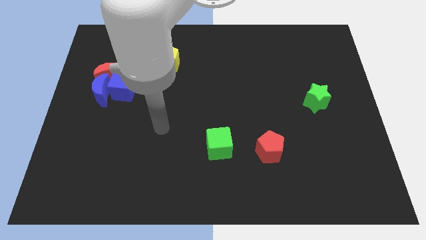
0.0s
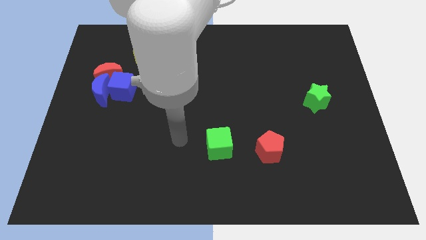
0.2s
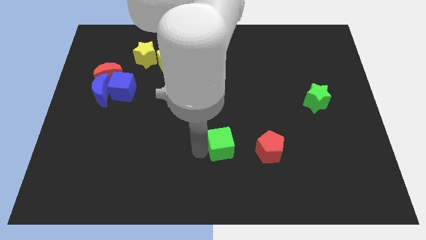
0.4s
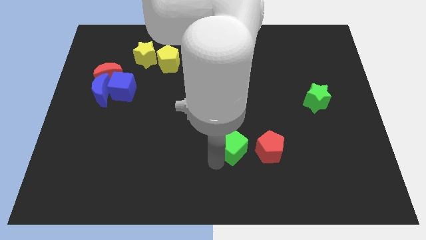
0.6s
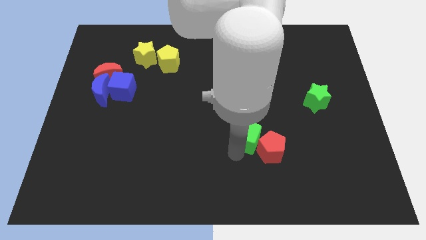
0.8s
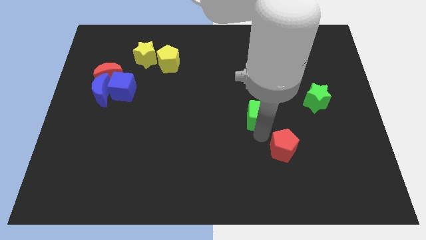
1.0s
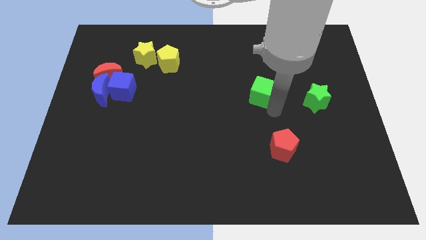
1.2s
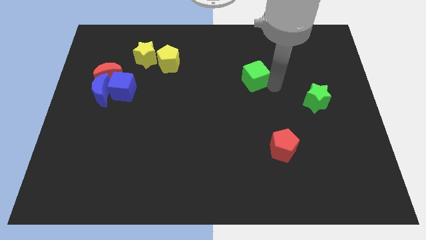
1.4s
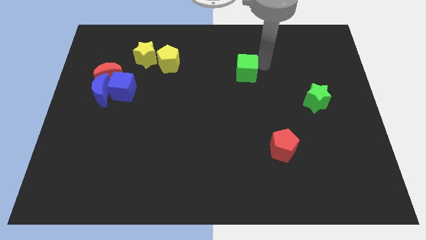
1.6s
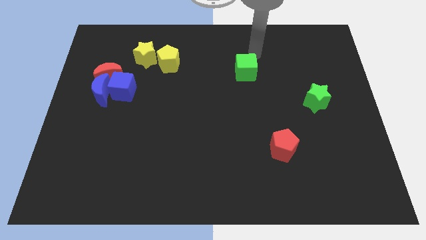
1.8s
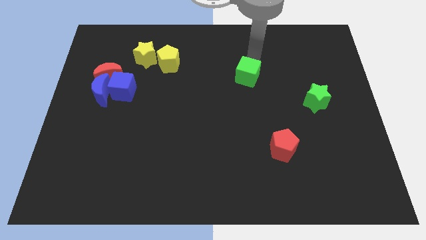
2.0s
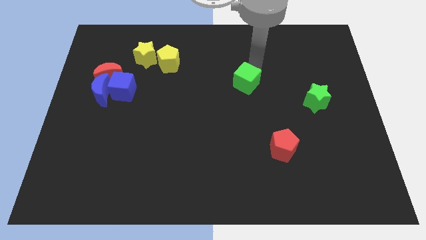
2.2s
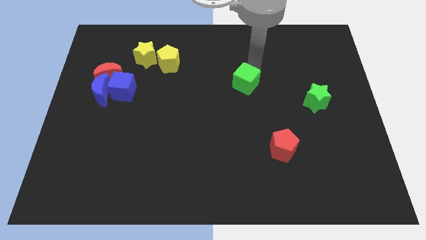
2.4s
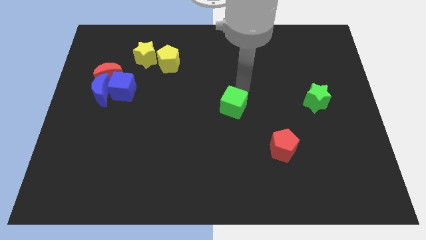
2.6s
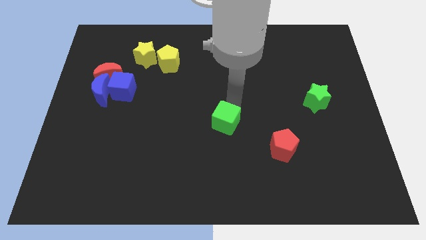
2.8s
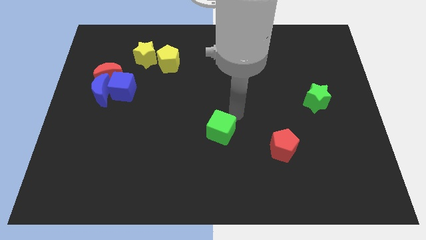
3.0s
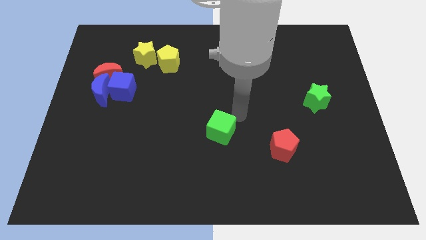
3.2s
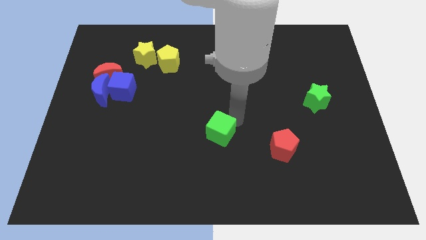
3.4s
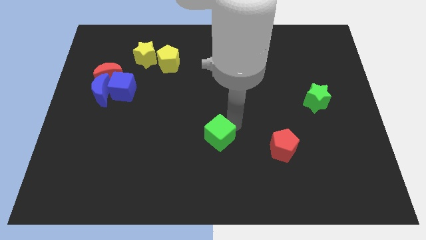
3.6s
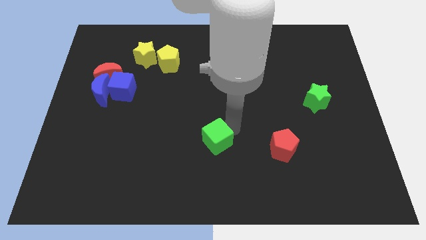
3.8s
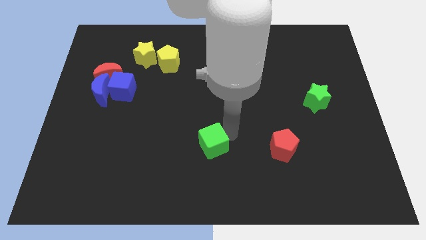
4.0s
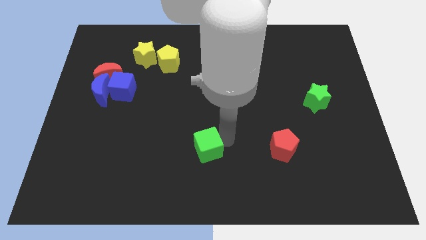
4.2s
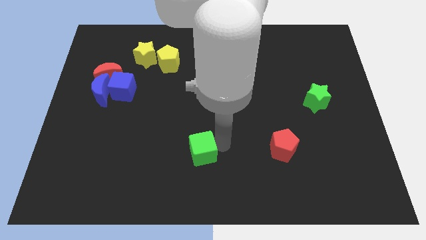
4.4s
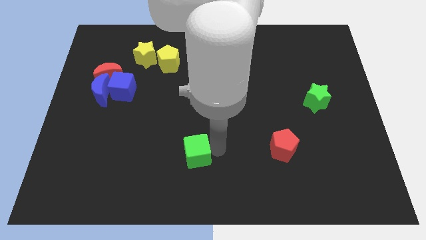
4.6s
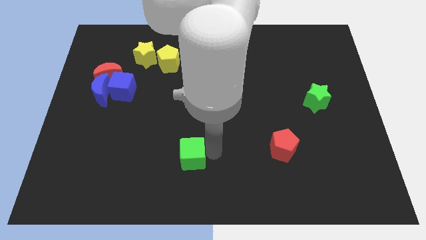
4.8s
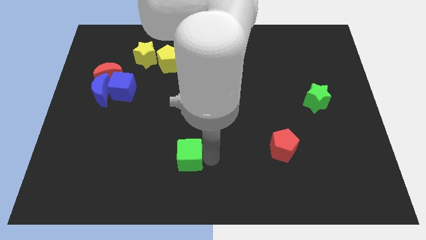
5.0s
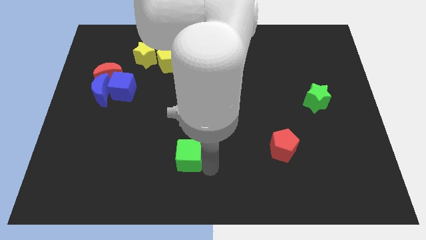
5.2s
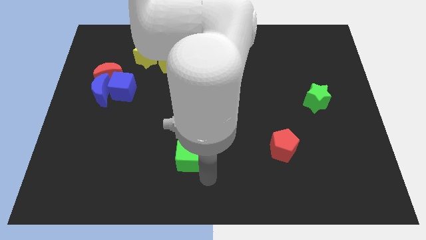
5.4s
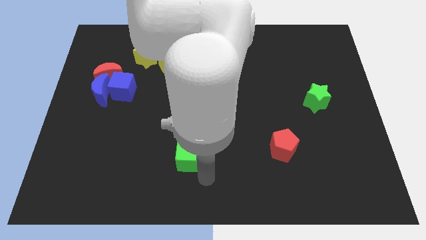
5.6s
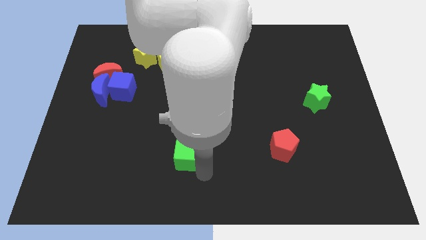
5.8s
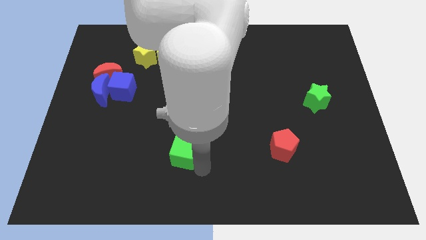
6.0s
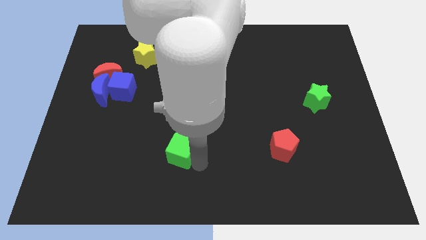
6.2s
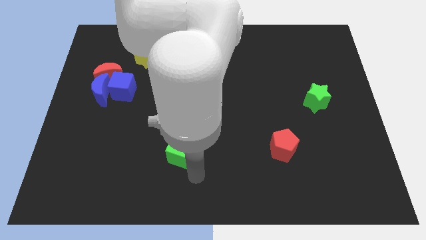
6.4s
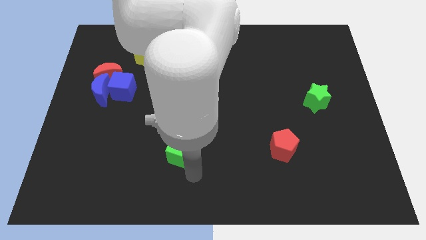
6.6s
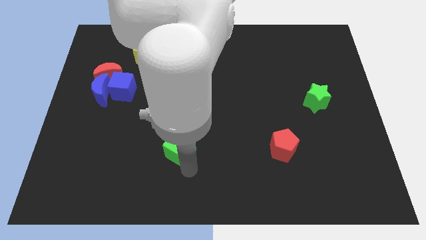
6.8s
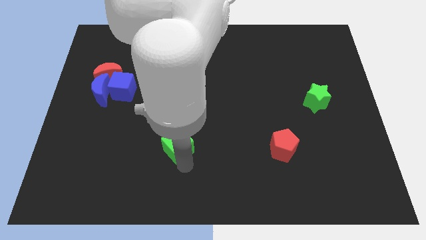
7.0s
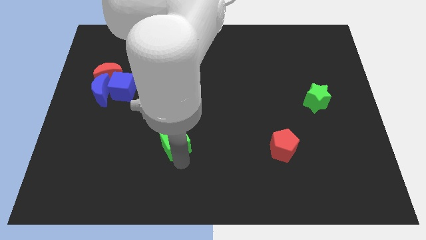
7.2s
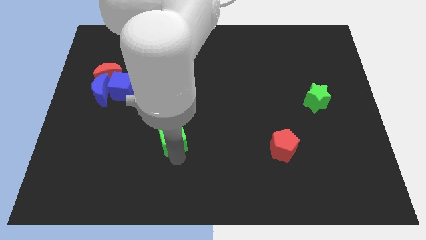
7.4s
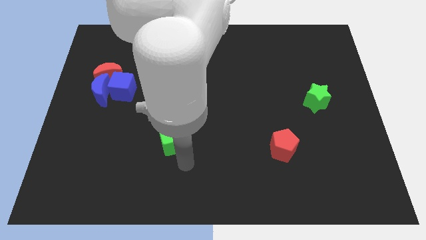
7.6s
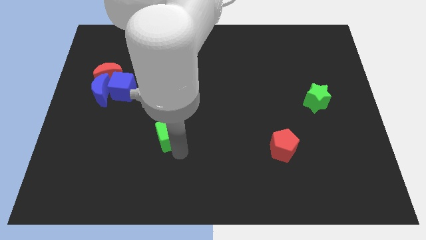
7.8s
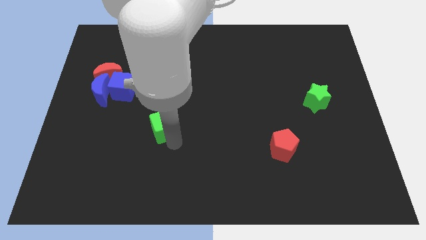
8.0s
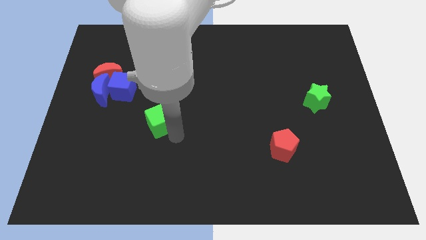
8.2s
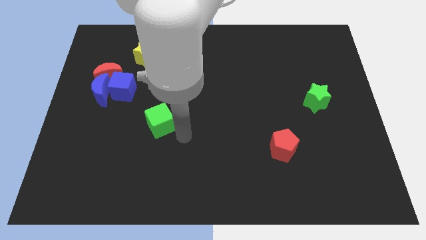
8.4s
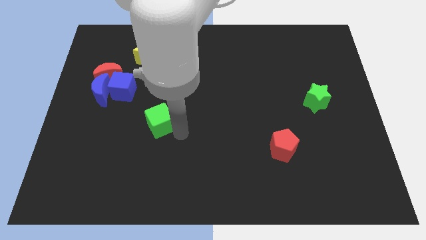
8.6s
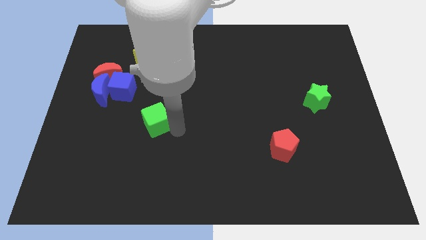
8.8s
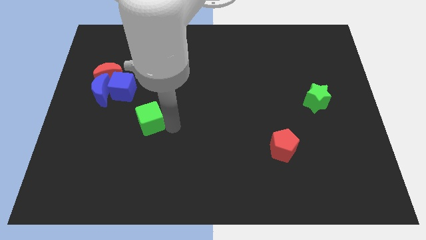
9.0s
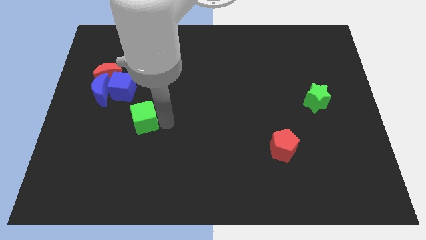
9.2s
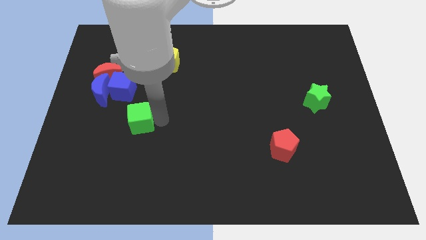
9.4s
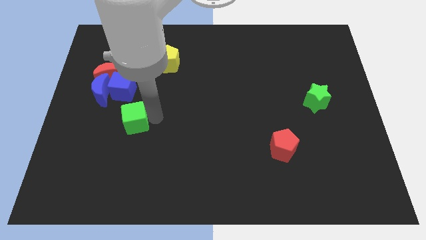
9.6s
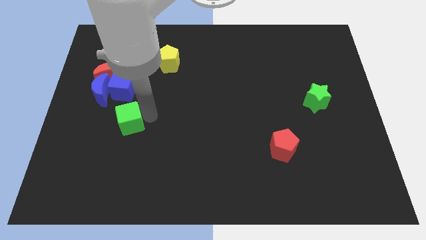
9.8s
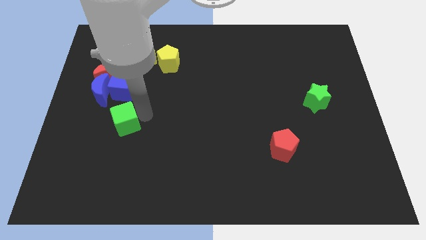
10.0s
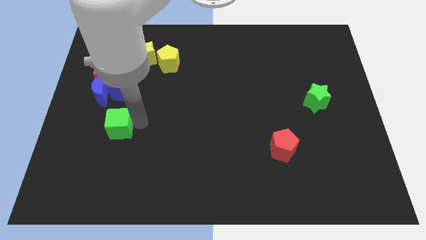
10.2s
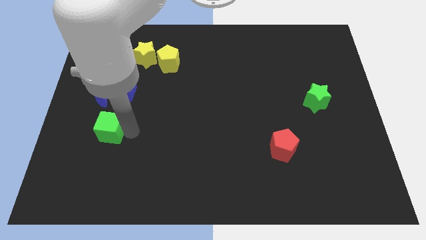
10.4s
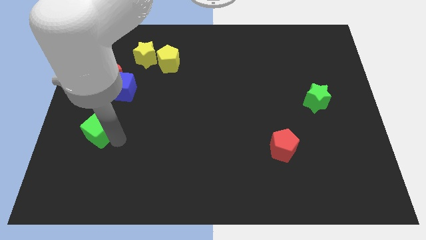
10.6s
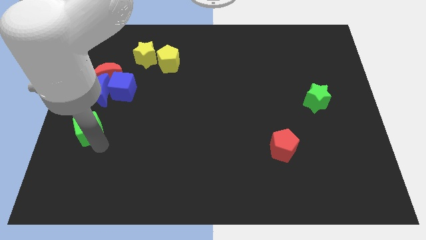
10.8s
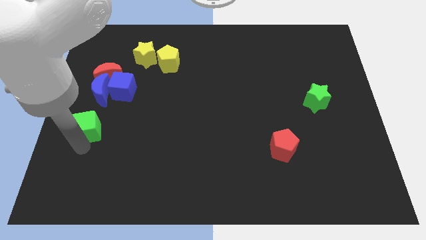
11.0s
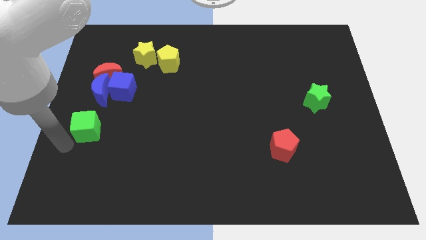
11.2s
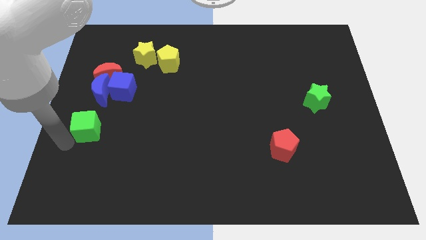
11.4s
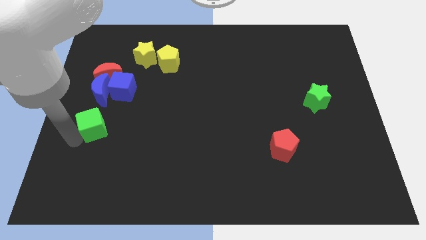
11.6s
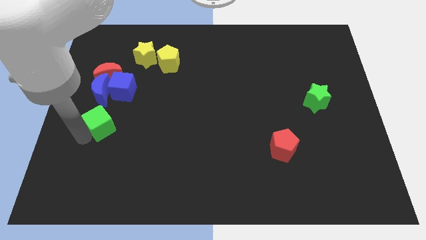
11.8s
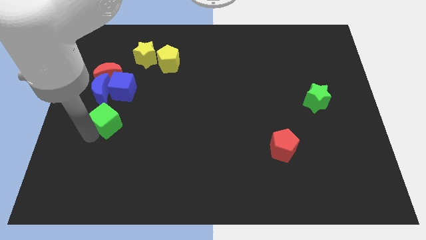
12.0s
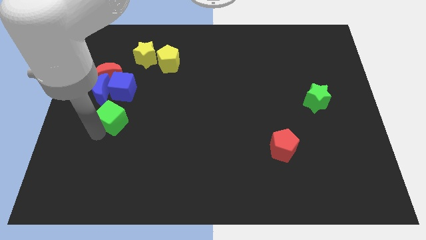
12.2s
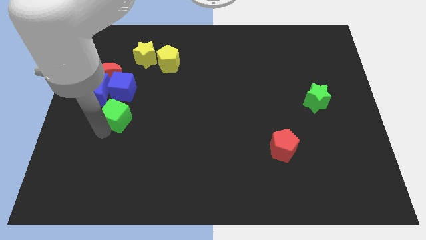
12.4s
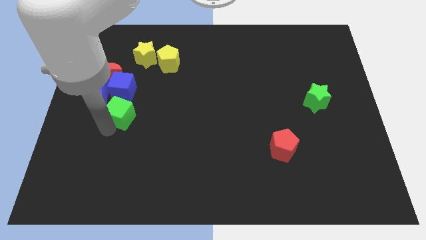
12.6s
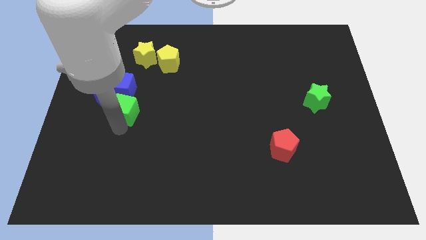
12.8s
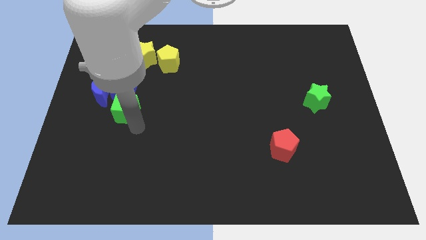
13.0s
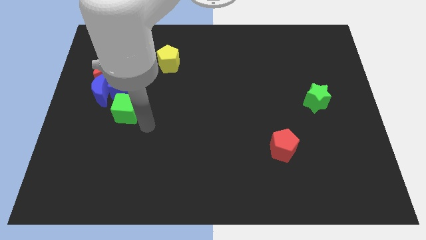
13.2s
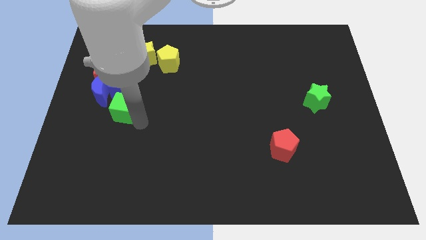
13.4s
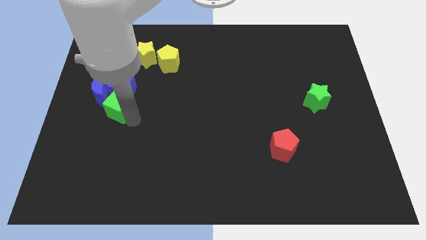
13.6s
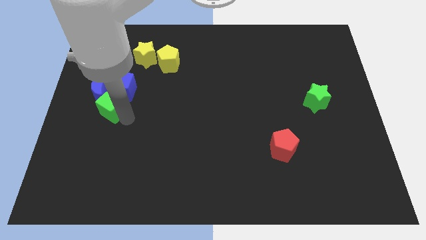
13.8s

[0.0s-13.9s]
put the green cube to the blue moon
